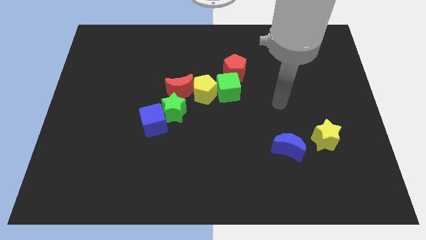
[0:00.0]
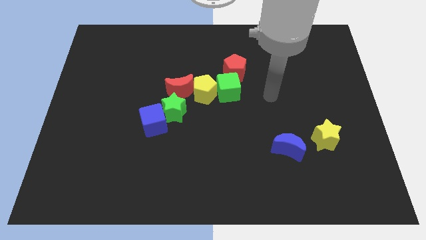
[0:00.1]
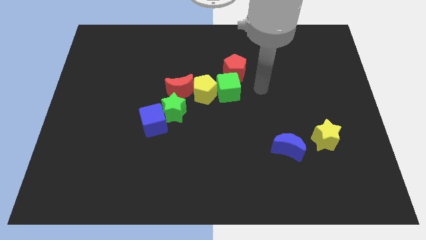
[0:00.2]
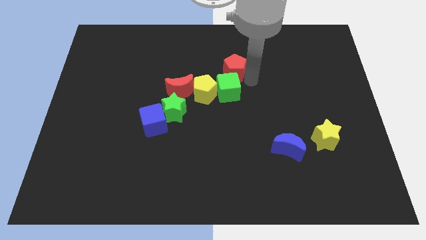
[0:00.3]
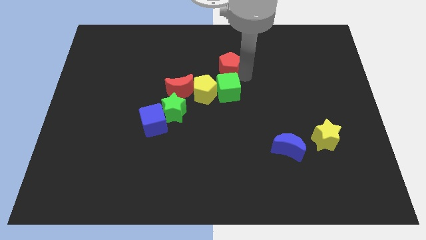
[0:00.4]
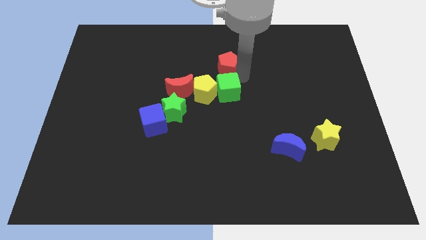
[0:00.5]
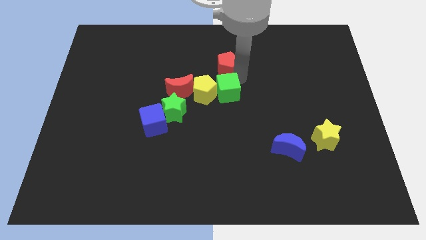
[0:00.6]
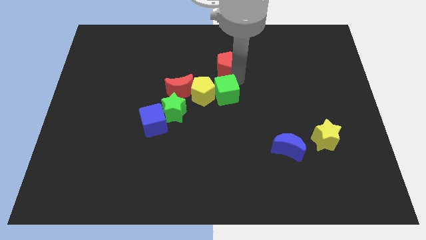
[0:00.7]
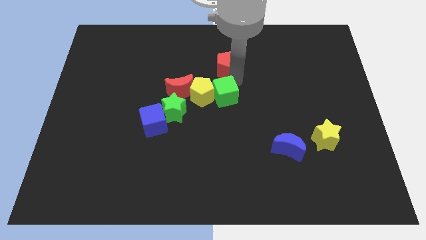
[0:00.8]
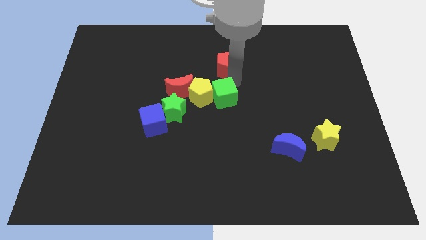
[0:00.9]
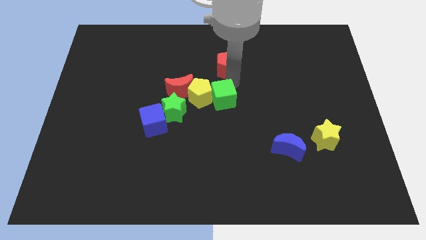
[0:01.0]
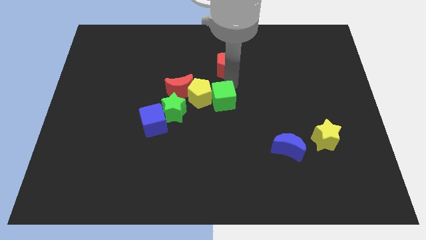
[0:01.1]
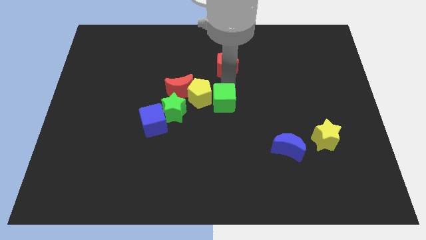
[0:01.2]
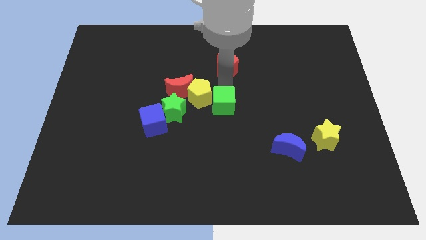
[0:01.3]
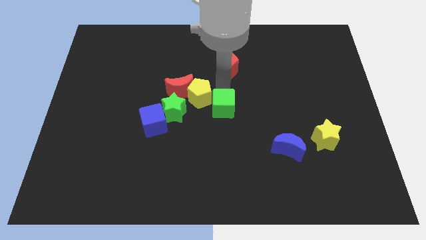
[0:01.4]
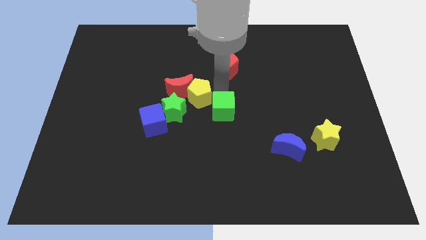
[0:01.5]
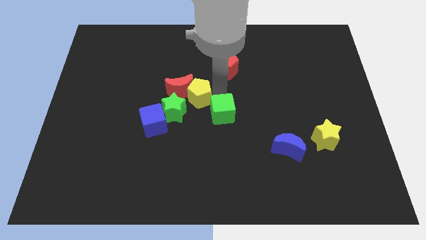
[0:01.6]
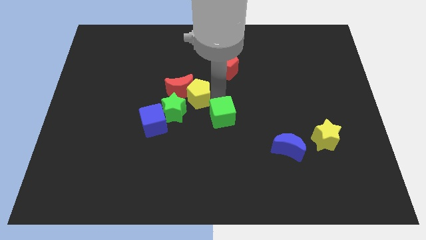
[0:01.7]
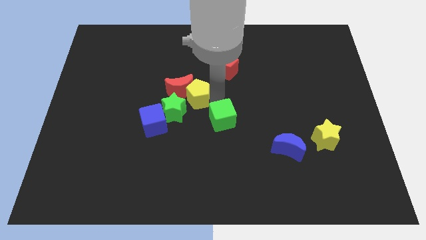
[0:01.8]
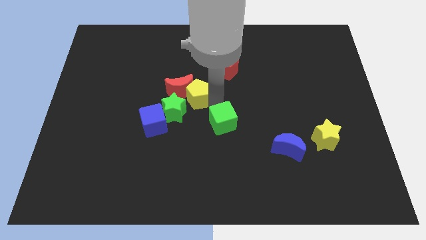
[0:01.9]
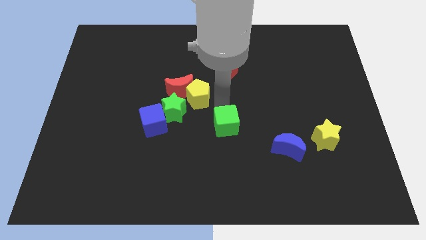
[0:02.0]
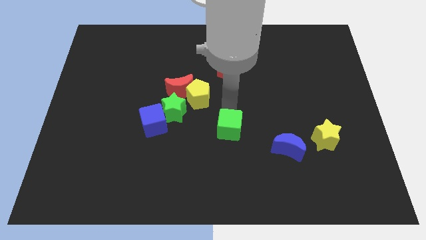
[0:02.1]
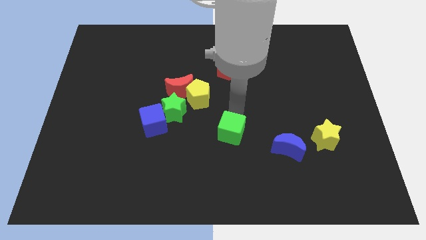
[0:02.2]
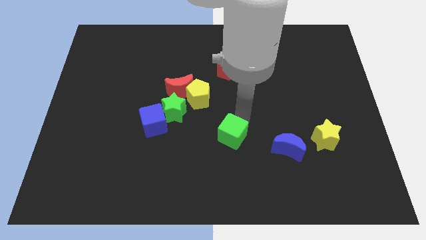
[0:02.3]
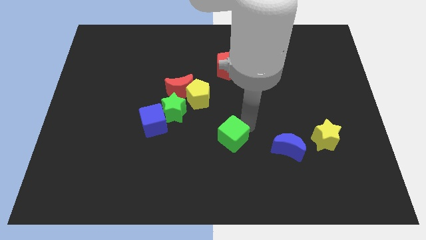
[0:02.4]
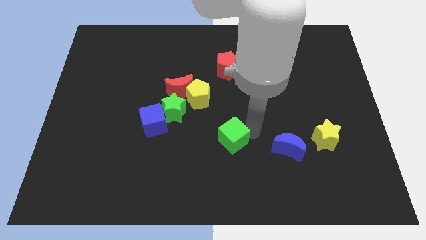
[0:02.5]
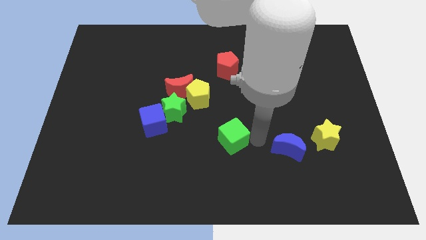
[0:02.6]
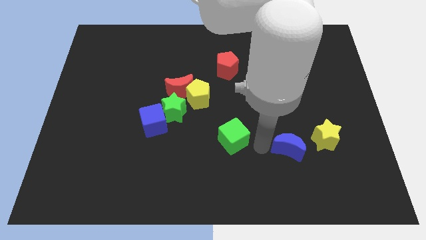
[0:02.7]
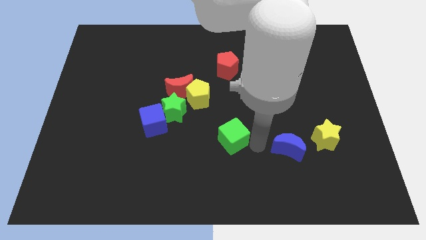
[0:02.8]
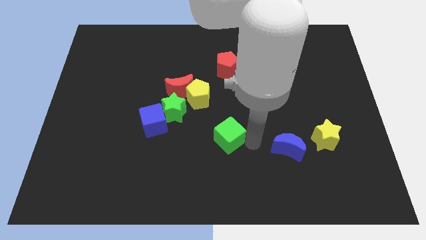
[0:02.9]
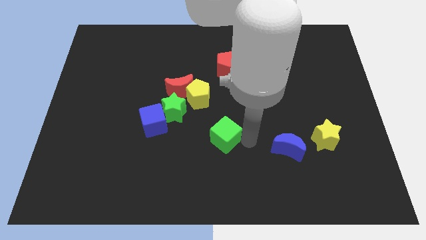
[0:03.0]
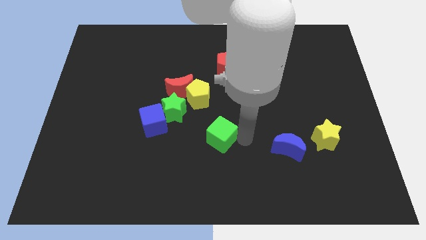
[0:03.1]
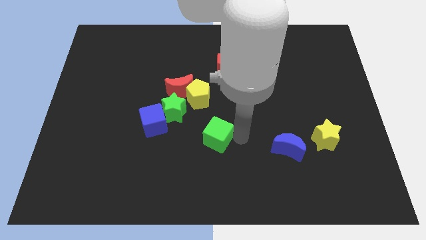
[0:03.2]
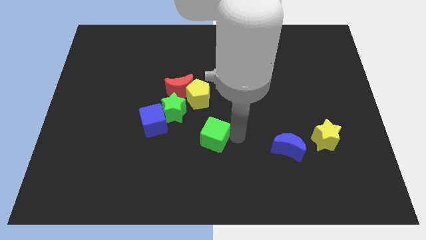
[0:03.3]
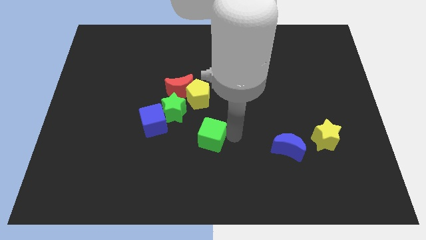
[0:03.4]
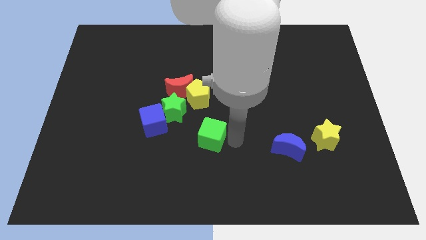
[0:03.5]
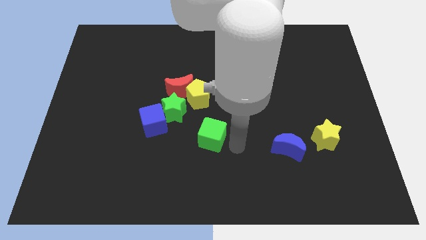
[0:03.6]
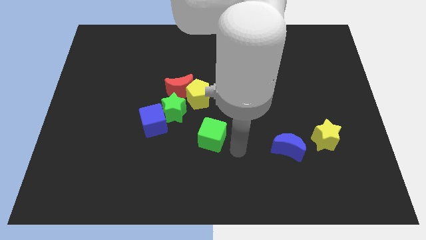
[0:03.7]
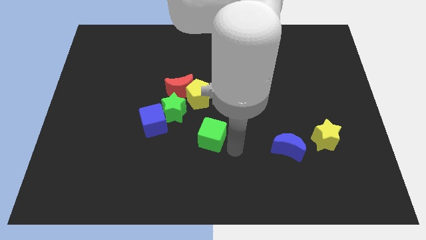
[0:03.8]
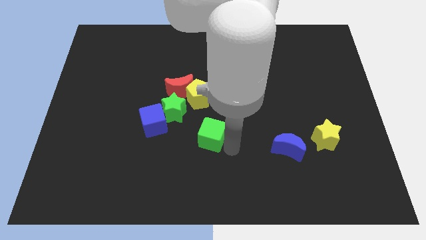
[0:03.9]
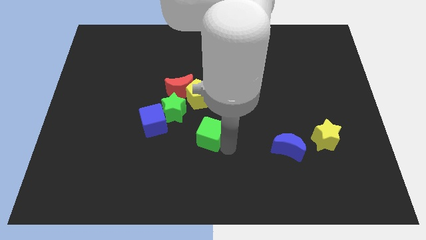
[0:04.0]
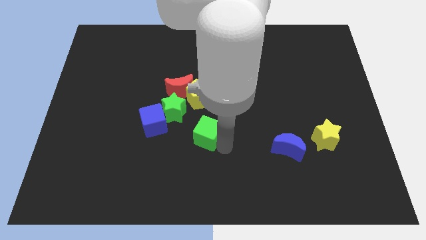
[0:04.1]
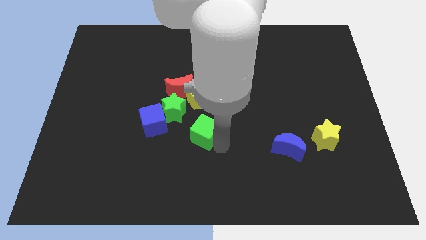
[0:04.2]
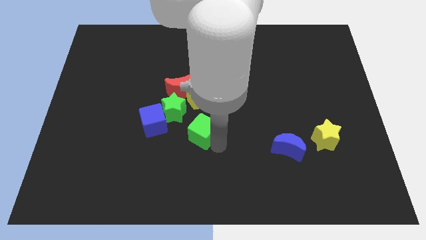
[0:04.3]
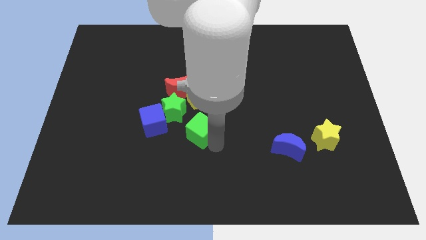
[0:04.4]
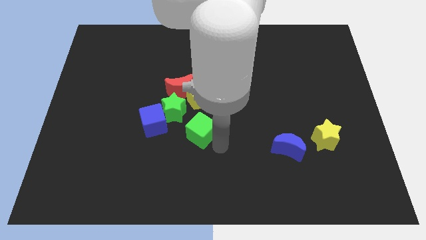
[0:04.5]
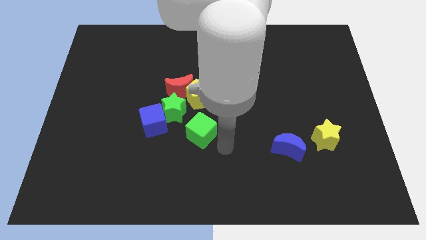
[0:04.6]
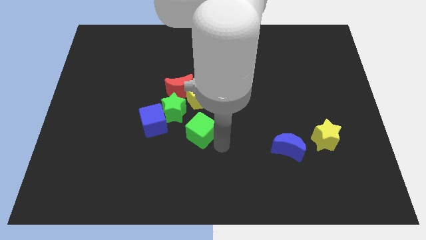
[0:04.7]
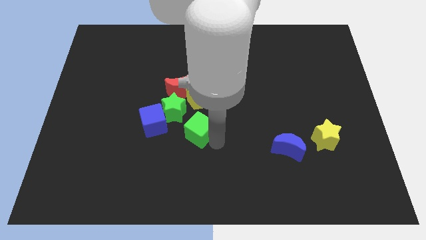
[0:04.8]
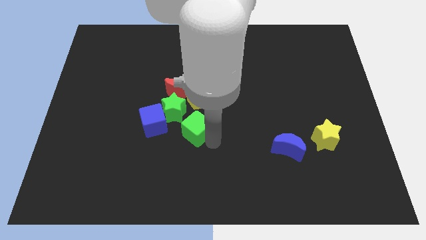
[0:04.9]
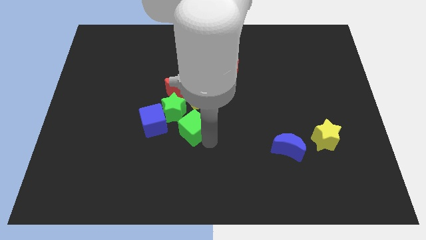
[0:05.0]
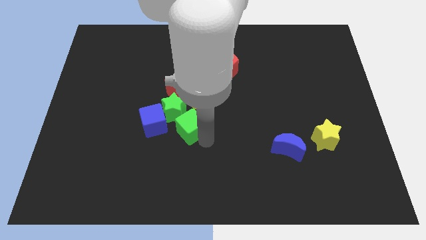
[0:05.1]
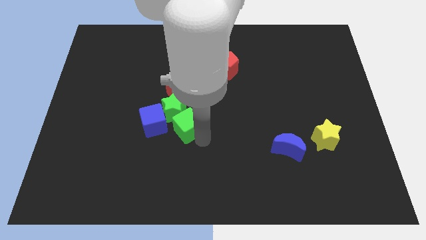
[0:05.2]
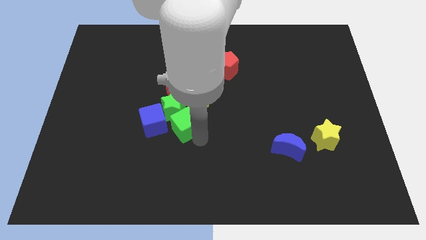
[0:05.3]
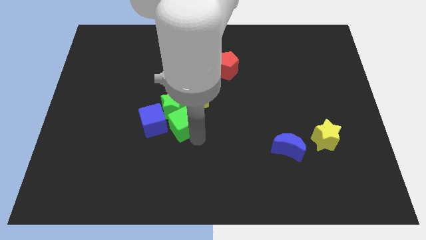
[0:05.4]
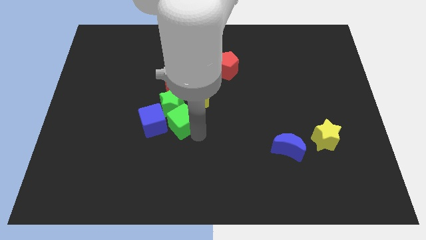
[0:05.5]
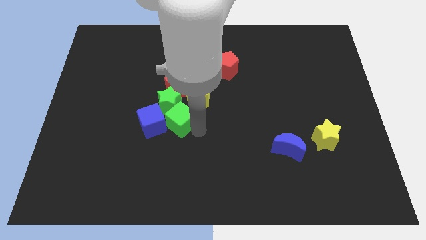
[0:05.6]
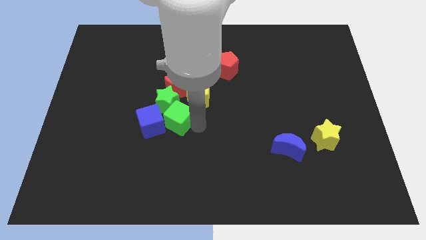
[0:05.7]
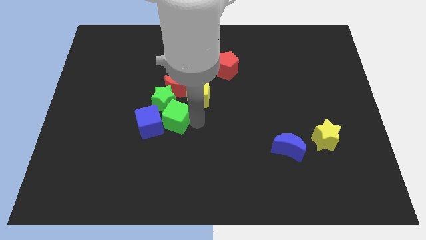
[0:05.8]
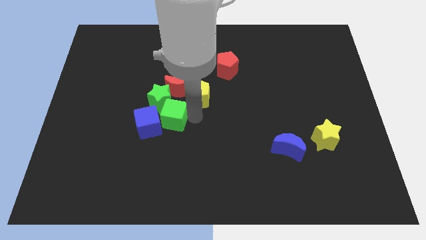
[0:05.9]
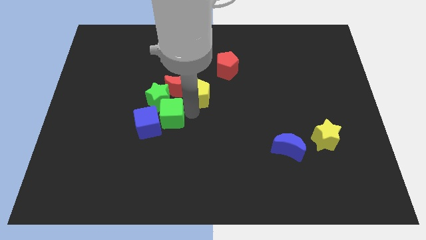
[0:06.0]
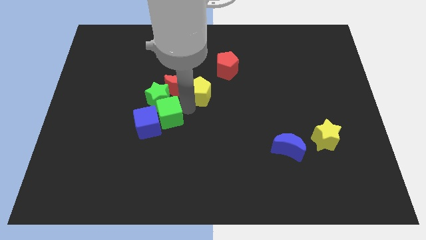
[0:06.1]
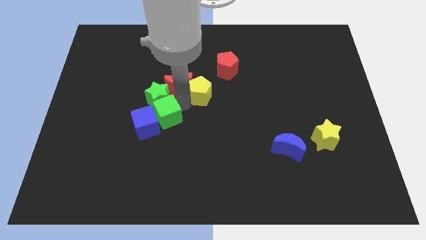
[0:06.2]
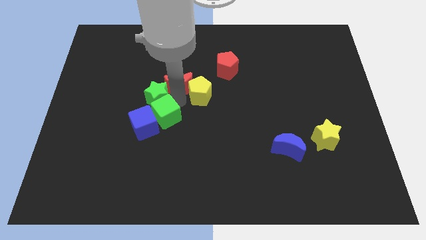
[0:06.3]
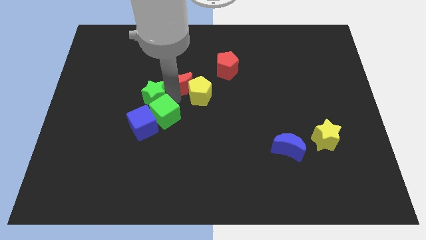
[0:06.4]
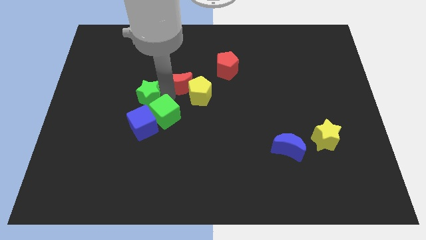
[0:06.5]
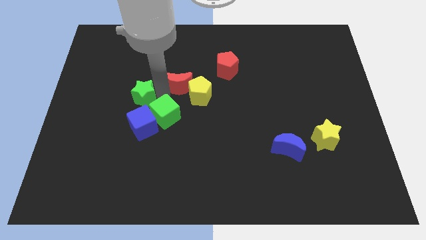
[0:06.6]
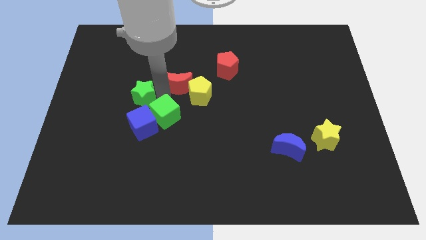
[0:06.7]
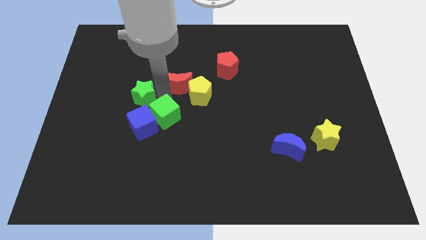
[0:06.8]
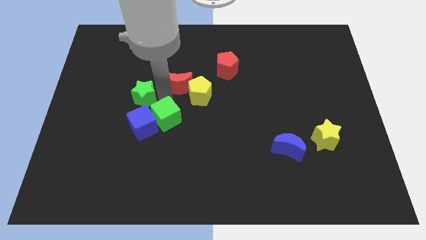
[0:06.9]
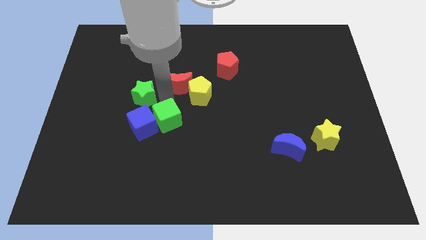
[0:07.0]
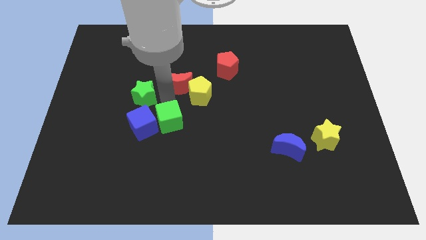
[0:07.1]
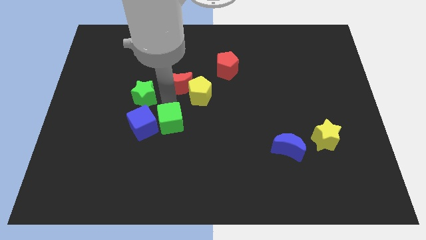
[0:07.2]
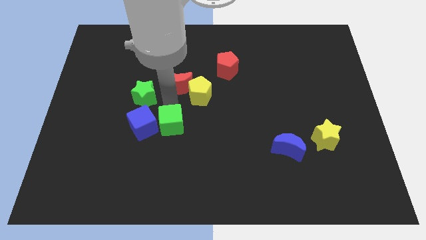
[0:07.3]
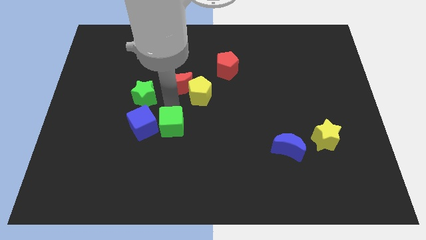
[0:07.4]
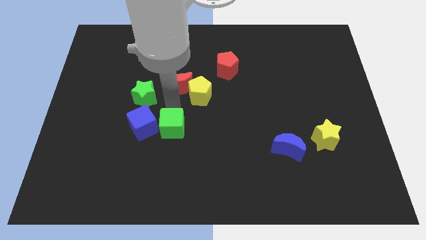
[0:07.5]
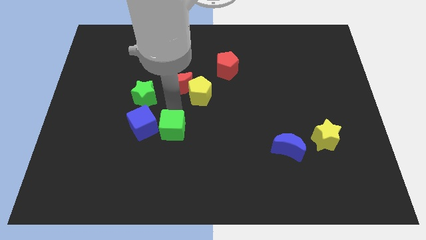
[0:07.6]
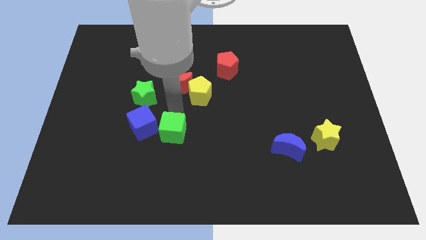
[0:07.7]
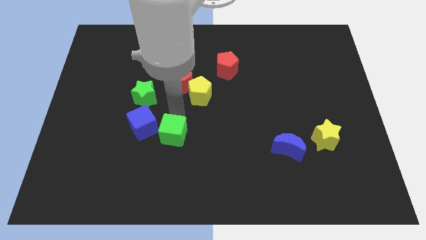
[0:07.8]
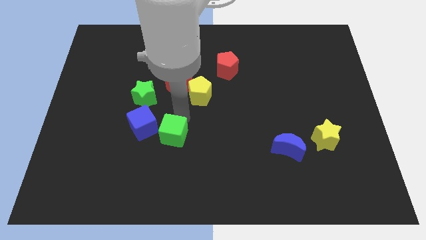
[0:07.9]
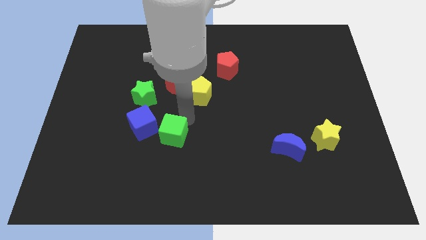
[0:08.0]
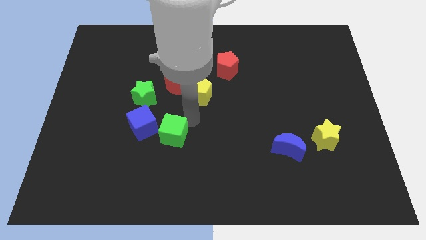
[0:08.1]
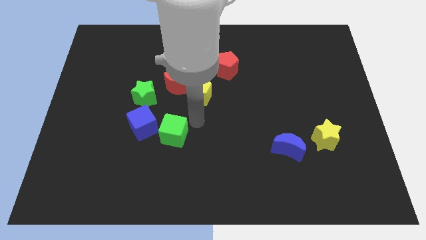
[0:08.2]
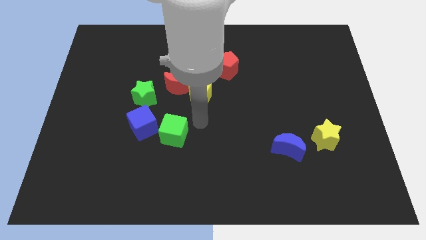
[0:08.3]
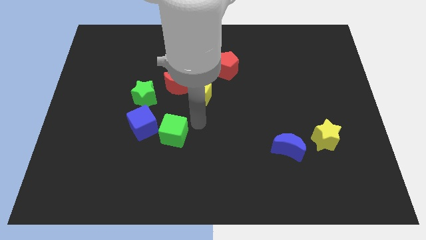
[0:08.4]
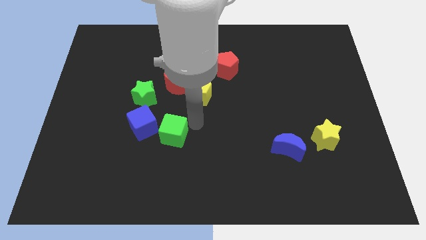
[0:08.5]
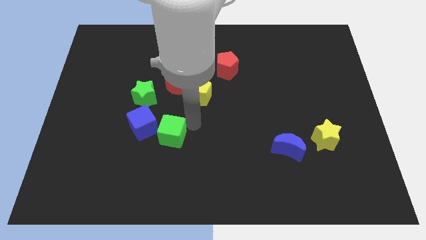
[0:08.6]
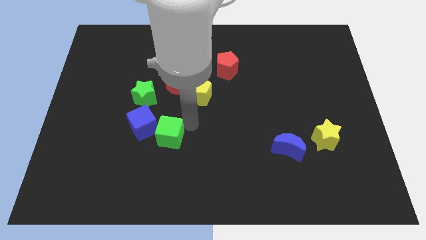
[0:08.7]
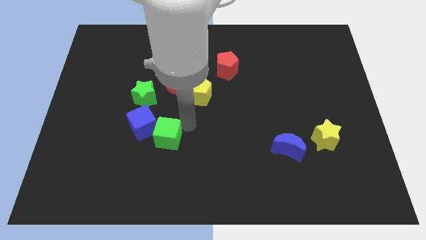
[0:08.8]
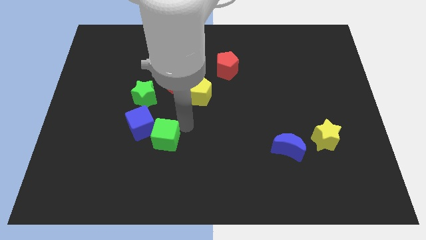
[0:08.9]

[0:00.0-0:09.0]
push the green cube diagonally downwards and left
